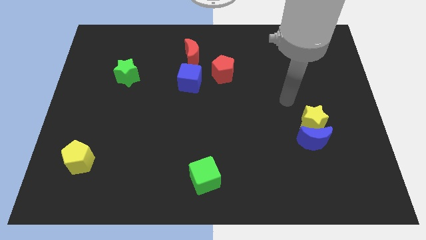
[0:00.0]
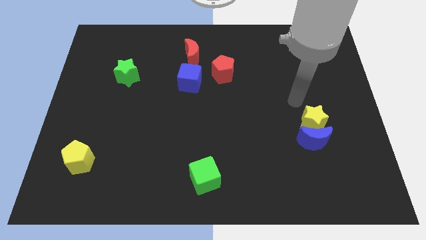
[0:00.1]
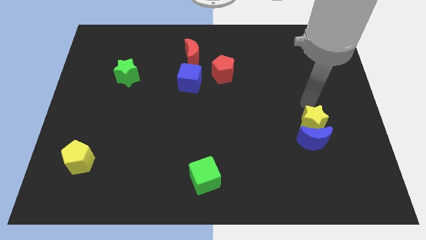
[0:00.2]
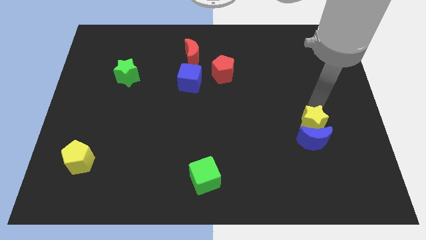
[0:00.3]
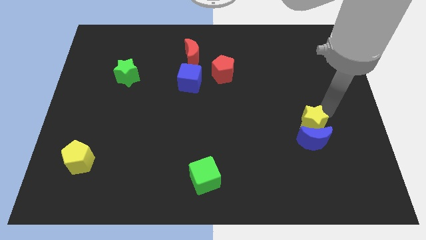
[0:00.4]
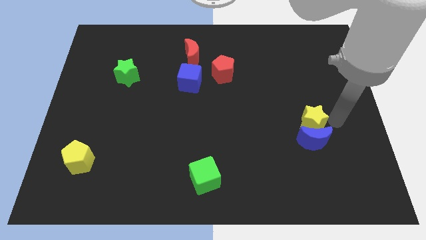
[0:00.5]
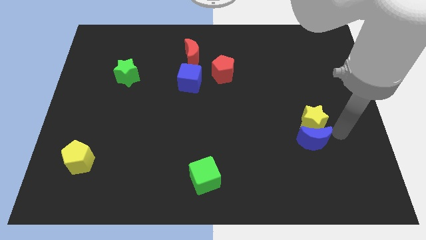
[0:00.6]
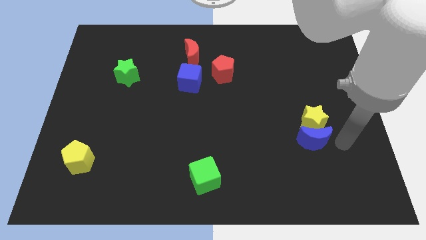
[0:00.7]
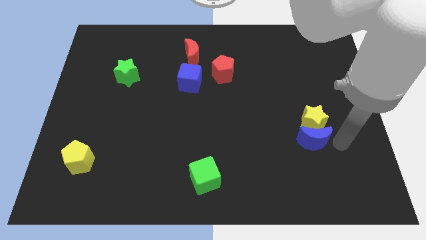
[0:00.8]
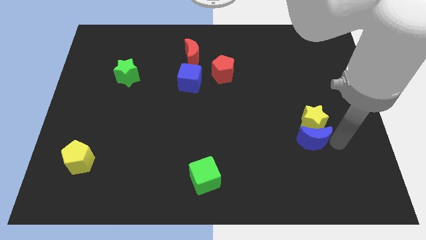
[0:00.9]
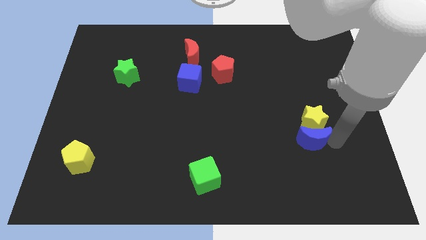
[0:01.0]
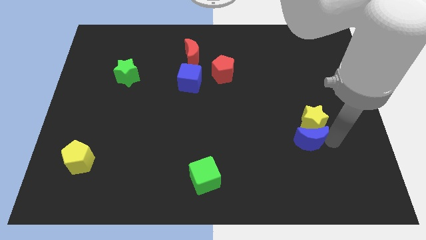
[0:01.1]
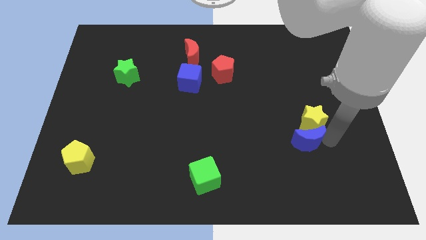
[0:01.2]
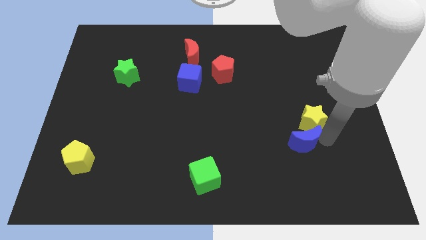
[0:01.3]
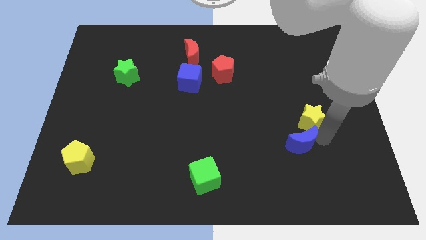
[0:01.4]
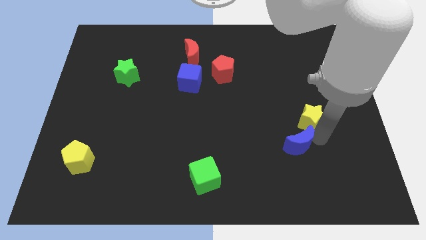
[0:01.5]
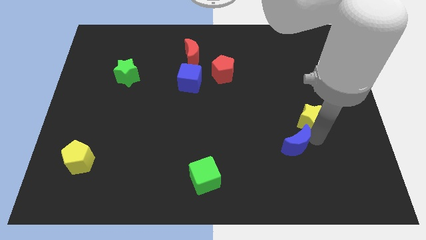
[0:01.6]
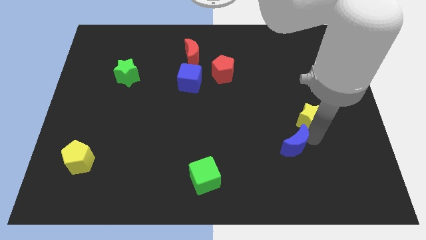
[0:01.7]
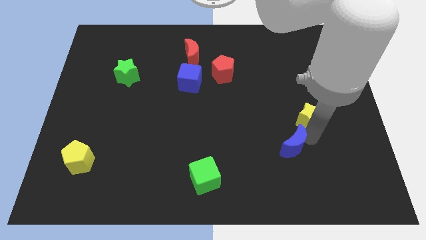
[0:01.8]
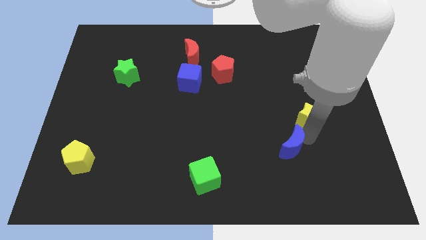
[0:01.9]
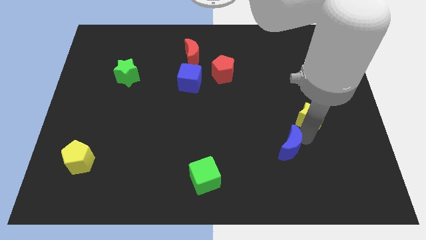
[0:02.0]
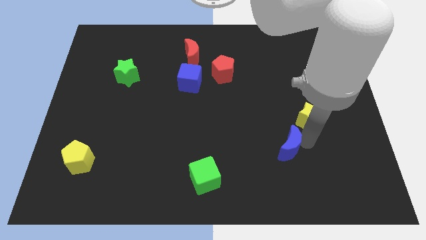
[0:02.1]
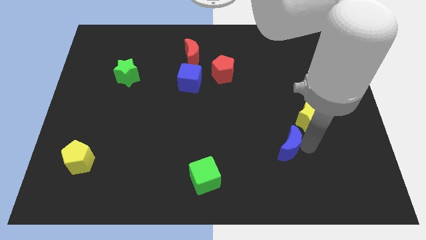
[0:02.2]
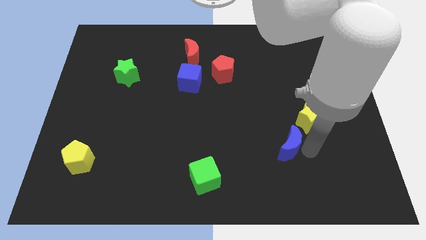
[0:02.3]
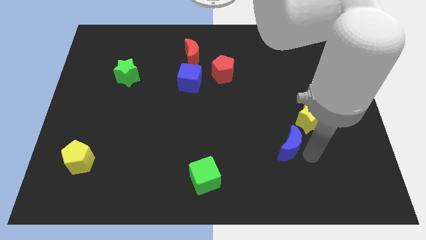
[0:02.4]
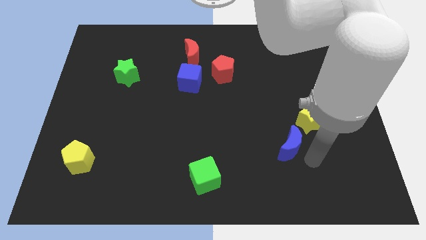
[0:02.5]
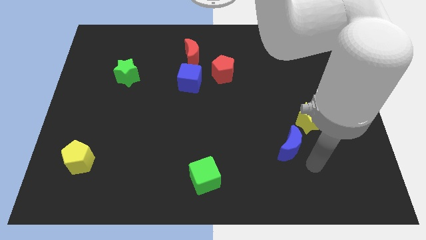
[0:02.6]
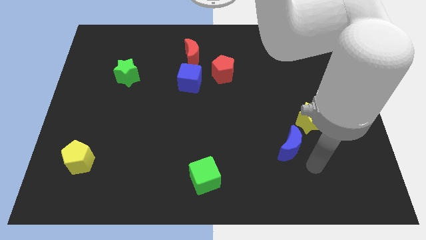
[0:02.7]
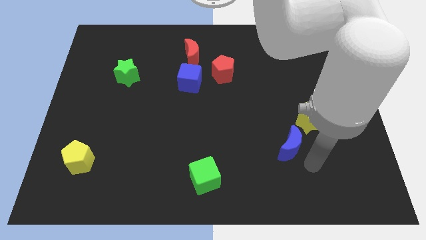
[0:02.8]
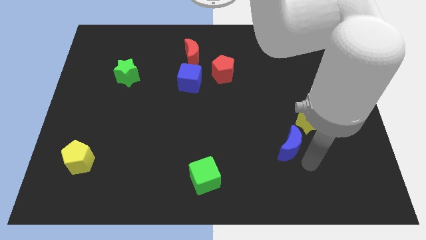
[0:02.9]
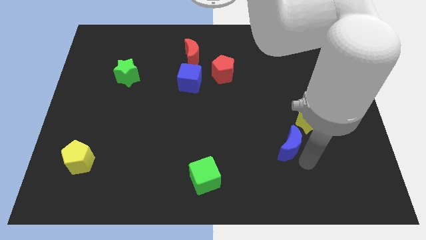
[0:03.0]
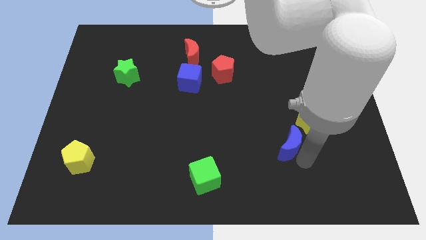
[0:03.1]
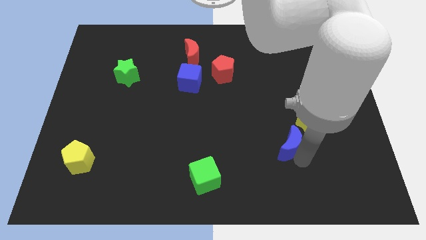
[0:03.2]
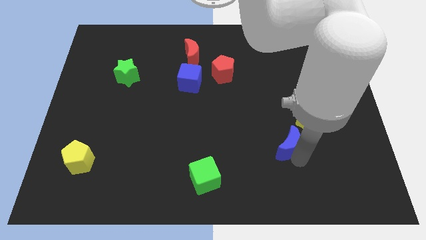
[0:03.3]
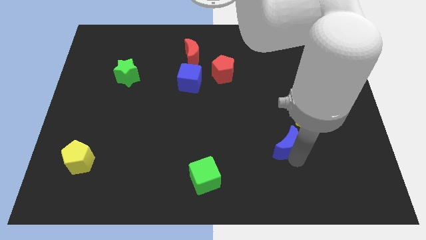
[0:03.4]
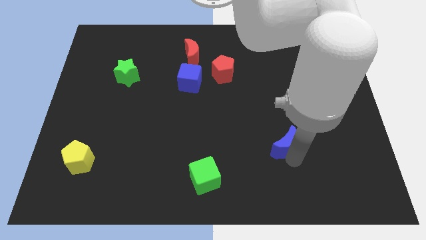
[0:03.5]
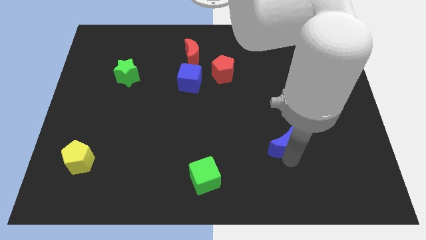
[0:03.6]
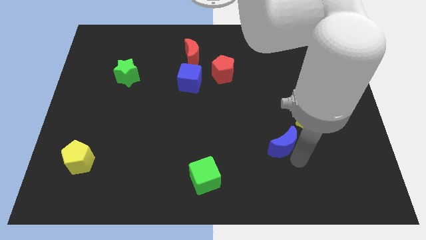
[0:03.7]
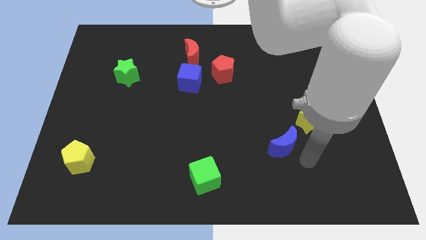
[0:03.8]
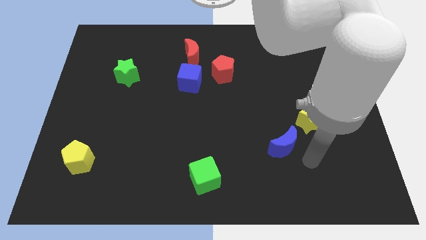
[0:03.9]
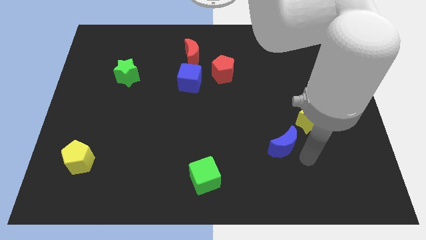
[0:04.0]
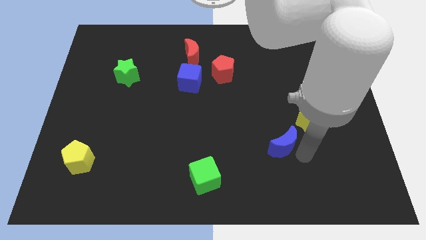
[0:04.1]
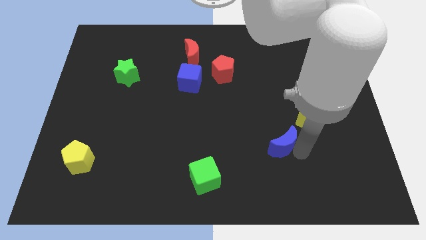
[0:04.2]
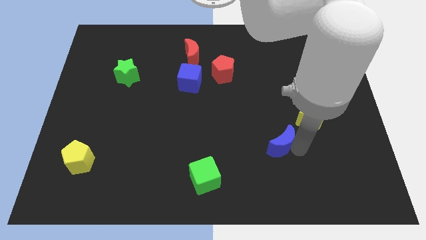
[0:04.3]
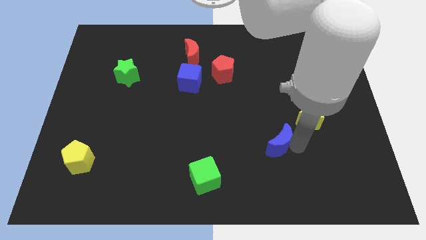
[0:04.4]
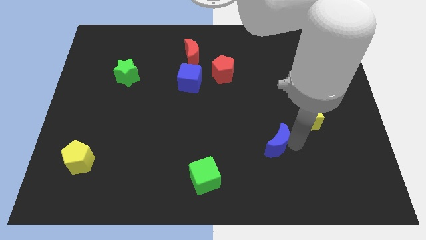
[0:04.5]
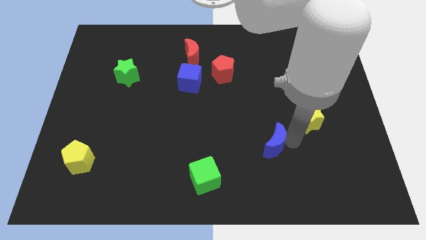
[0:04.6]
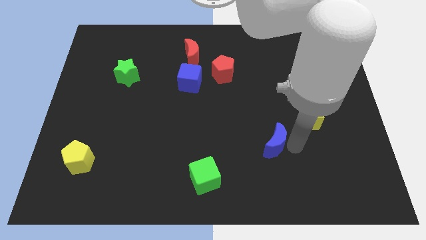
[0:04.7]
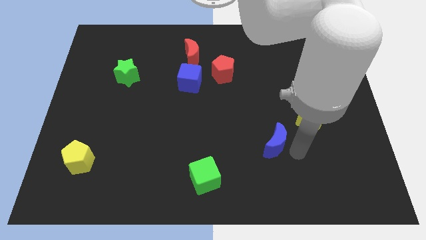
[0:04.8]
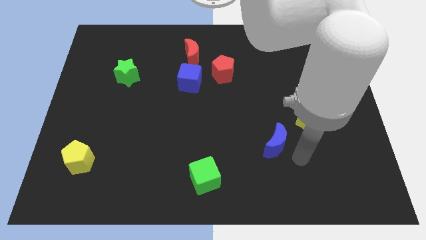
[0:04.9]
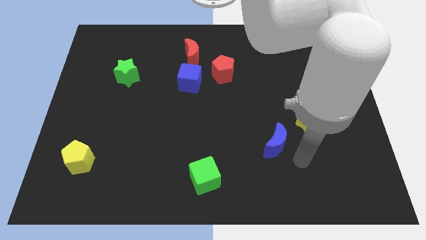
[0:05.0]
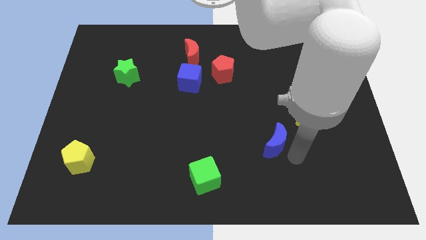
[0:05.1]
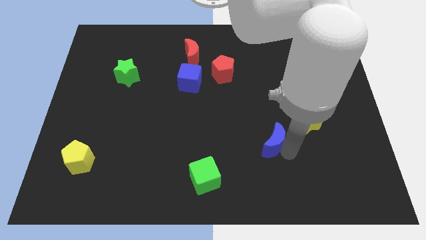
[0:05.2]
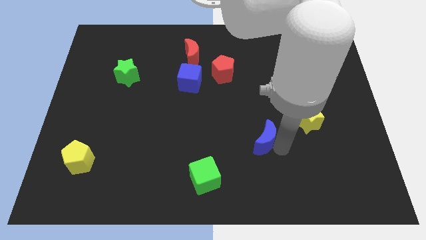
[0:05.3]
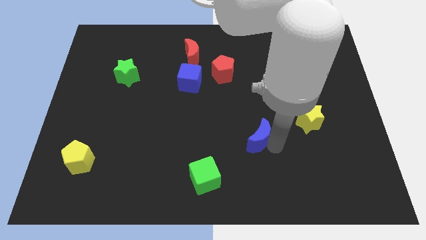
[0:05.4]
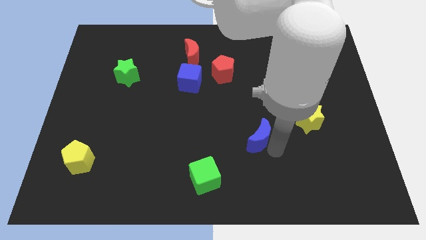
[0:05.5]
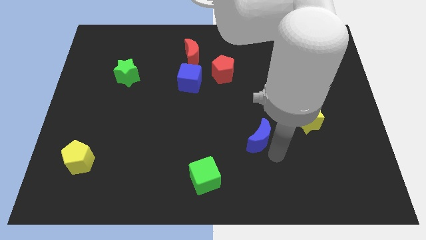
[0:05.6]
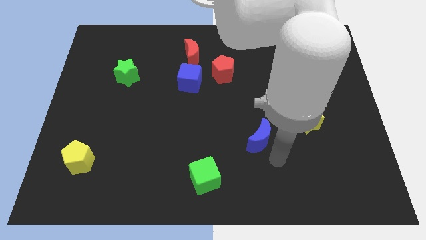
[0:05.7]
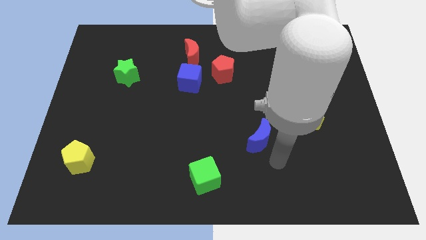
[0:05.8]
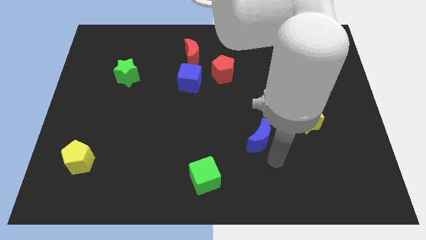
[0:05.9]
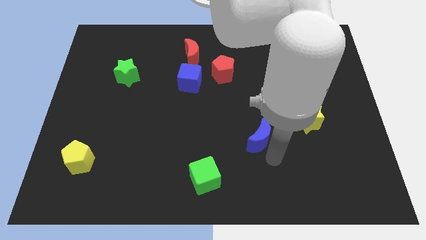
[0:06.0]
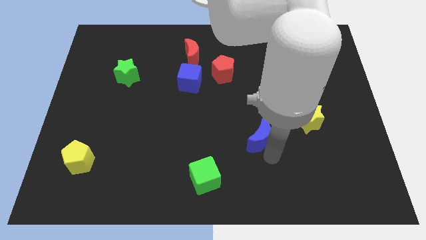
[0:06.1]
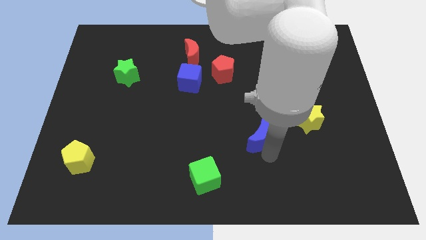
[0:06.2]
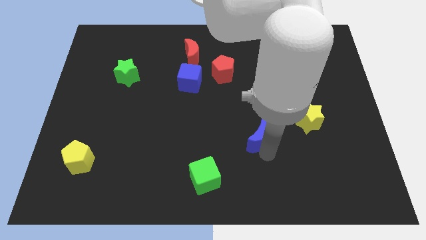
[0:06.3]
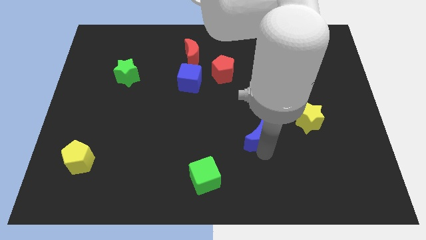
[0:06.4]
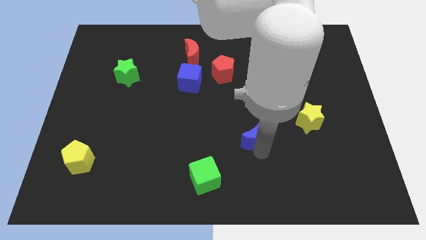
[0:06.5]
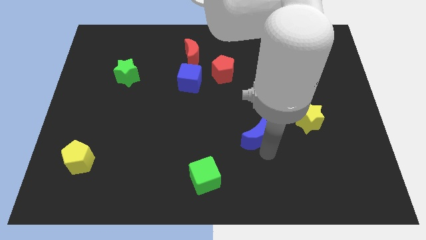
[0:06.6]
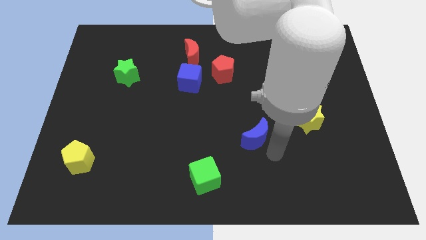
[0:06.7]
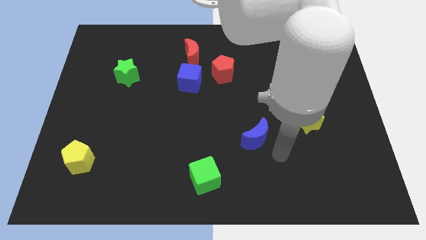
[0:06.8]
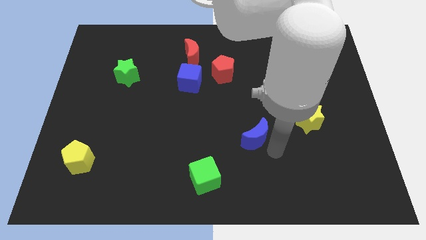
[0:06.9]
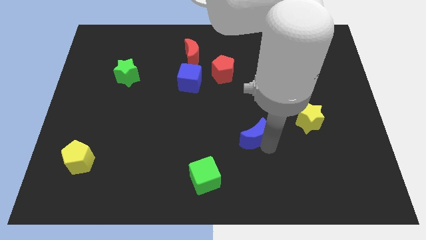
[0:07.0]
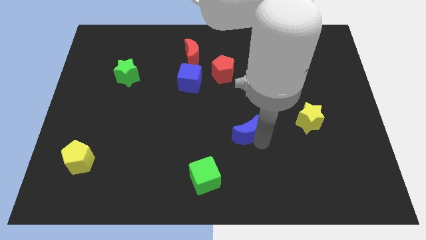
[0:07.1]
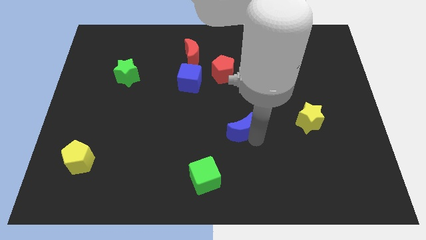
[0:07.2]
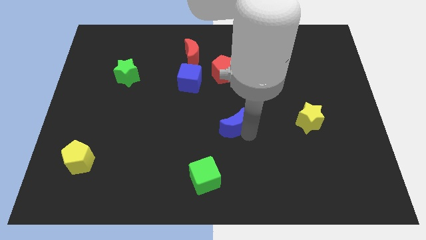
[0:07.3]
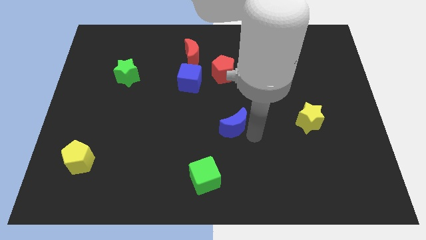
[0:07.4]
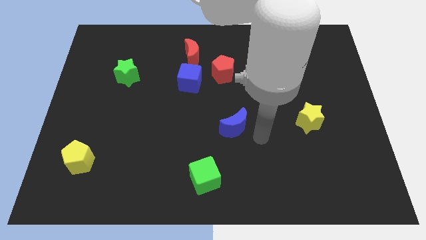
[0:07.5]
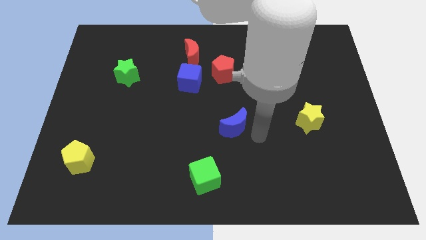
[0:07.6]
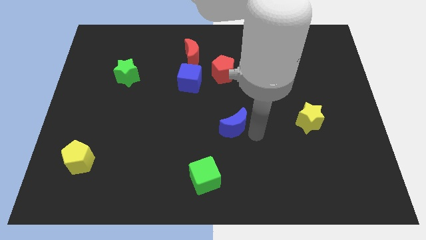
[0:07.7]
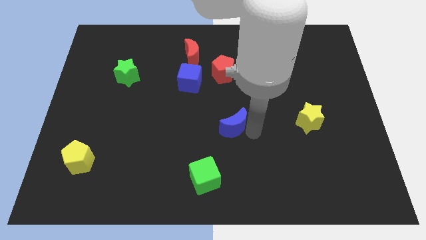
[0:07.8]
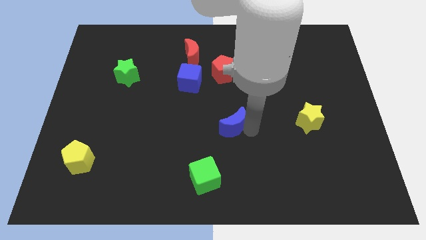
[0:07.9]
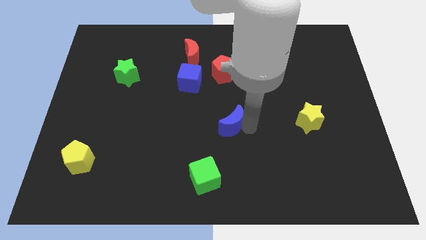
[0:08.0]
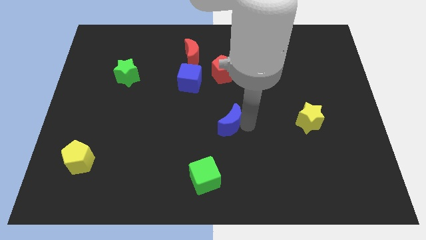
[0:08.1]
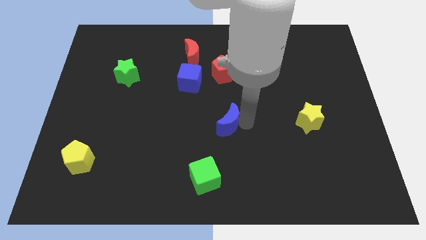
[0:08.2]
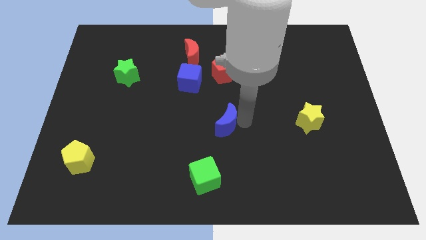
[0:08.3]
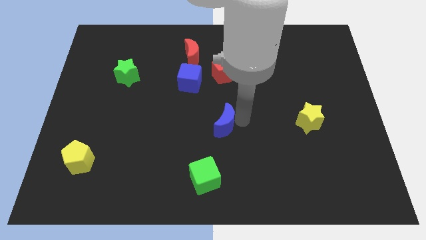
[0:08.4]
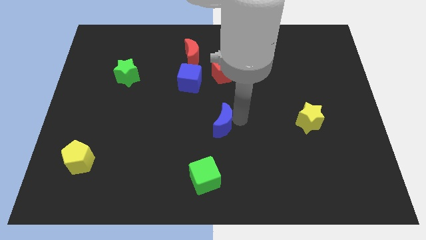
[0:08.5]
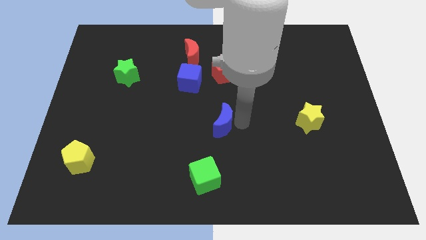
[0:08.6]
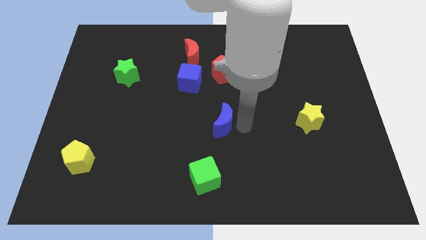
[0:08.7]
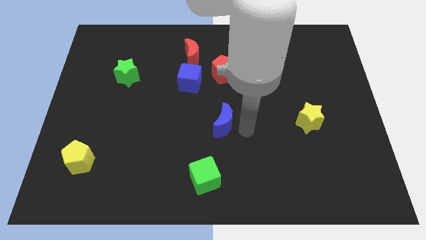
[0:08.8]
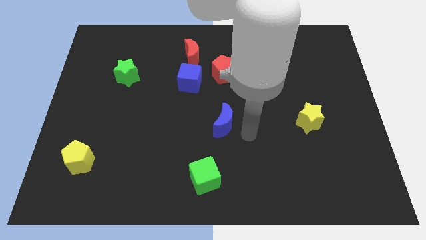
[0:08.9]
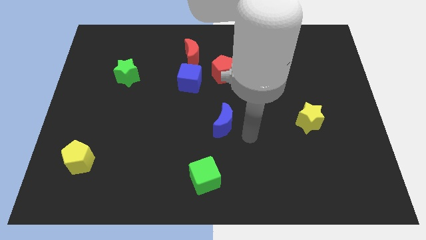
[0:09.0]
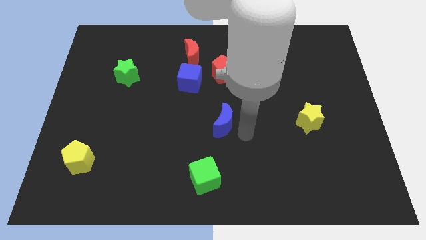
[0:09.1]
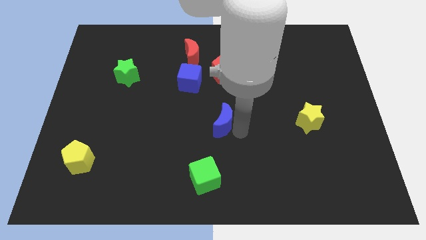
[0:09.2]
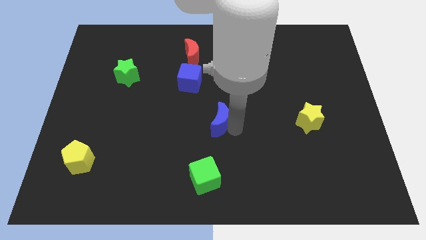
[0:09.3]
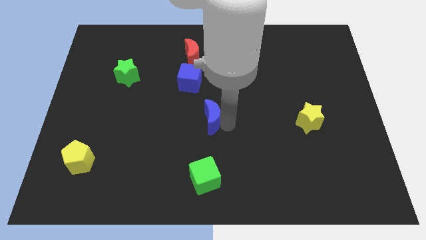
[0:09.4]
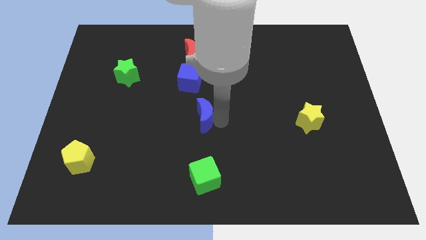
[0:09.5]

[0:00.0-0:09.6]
push the blue moon below the blue cube
